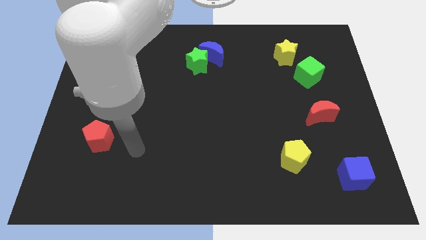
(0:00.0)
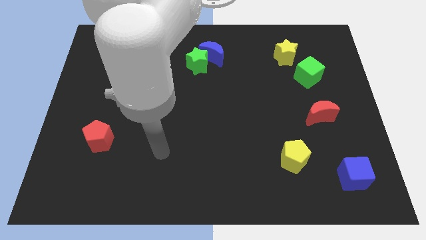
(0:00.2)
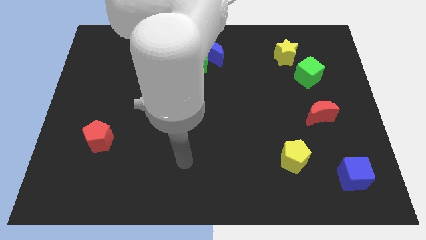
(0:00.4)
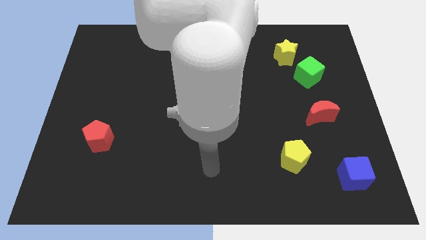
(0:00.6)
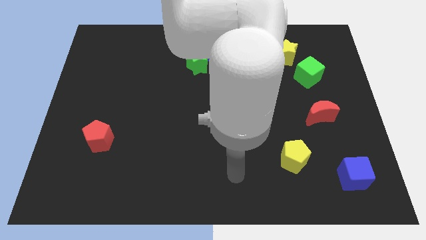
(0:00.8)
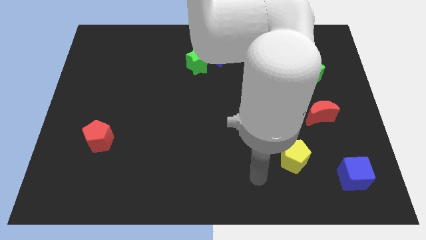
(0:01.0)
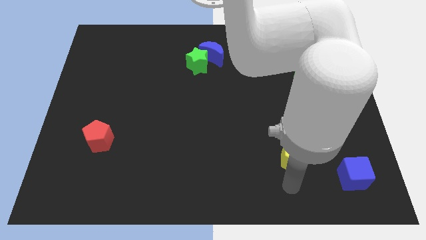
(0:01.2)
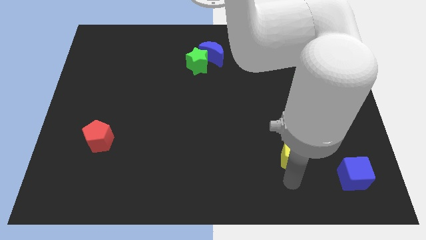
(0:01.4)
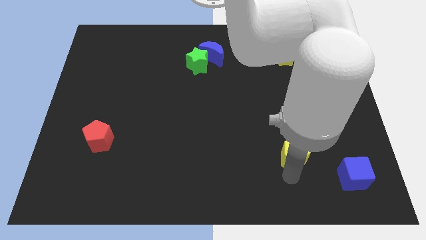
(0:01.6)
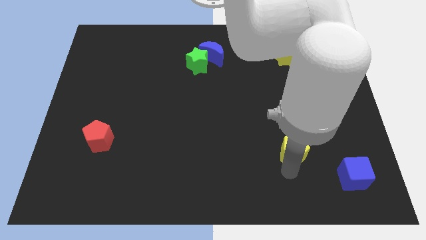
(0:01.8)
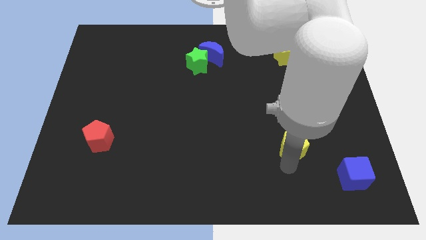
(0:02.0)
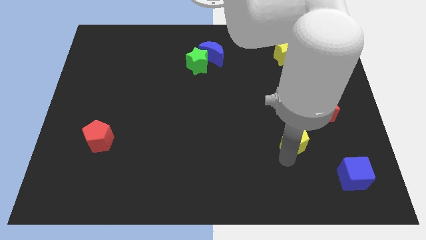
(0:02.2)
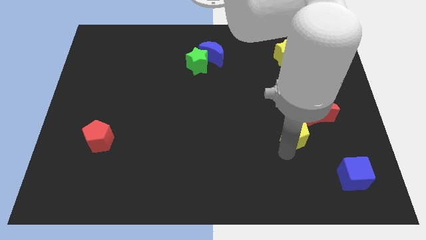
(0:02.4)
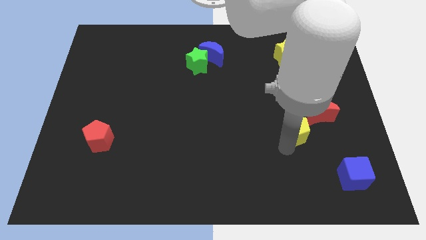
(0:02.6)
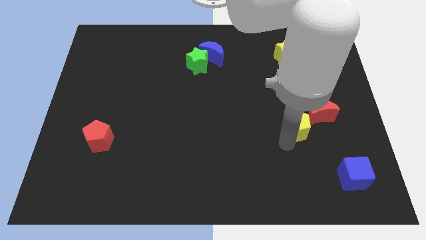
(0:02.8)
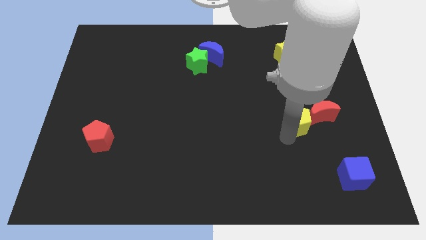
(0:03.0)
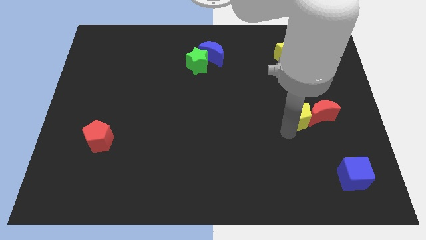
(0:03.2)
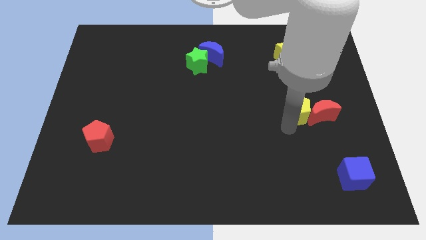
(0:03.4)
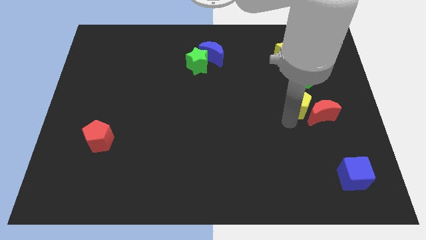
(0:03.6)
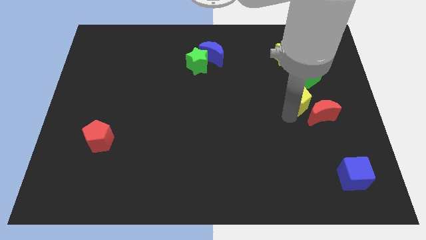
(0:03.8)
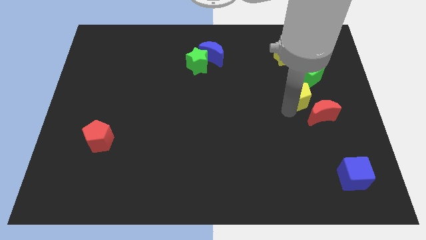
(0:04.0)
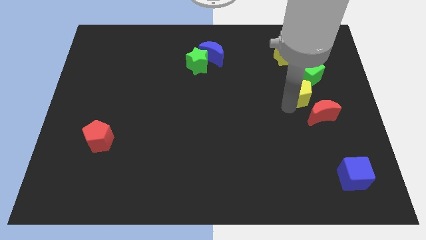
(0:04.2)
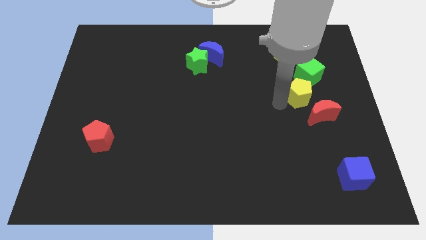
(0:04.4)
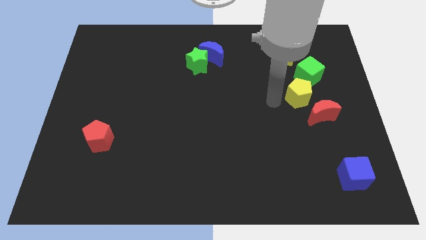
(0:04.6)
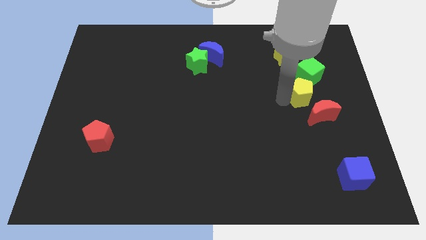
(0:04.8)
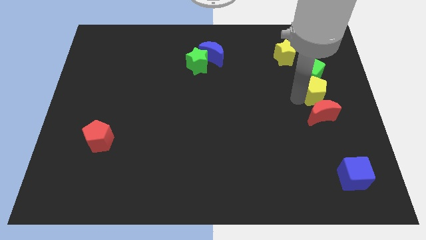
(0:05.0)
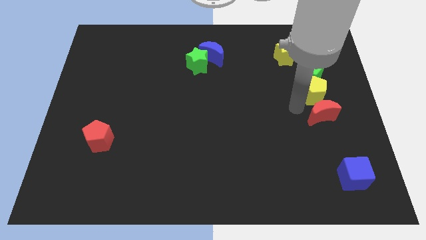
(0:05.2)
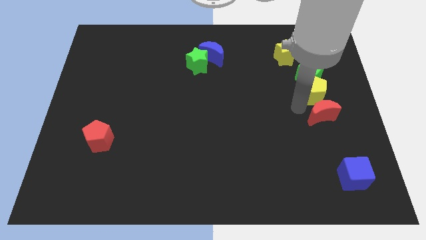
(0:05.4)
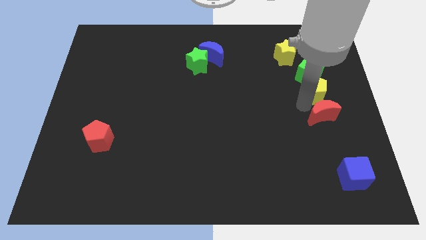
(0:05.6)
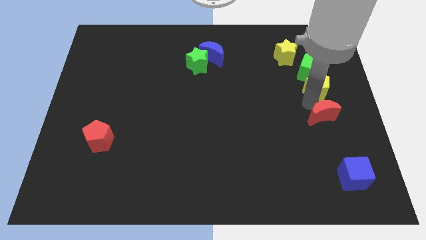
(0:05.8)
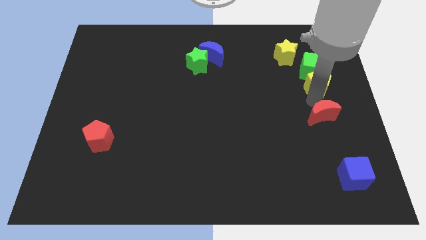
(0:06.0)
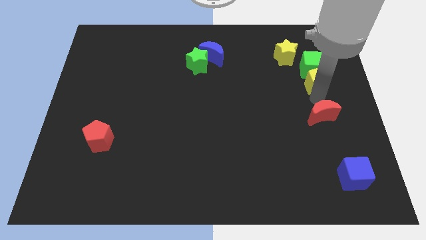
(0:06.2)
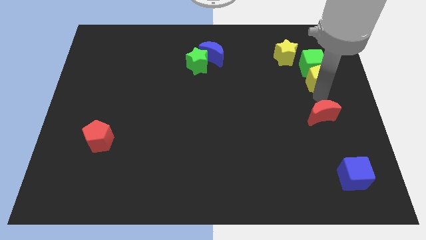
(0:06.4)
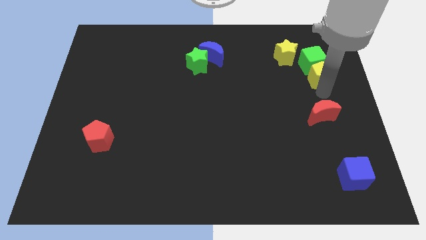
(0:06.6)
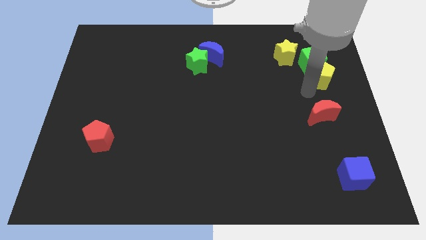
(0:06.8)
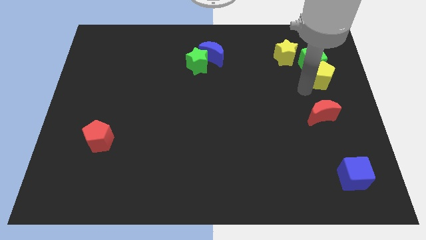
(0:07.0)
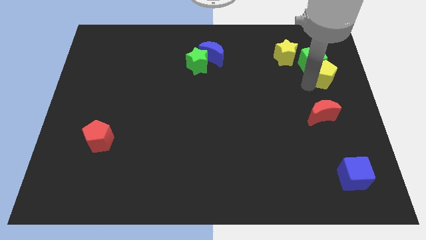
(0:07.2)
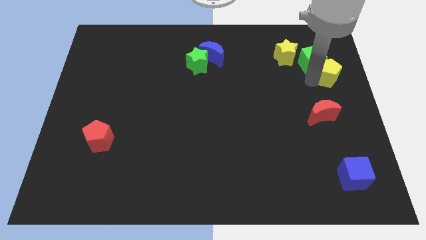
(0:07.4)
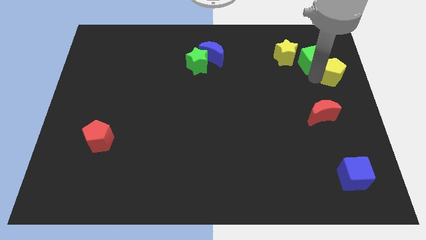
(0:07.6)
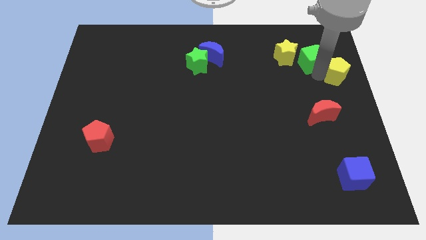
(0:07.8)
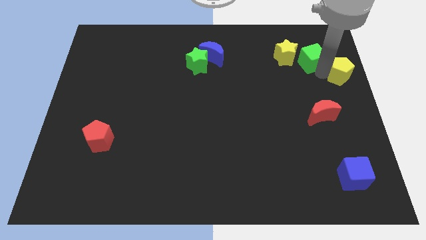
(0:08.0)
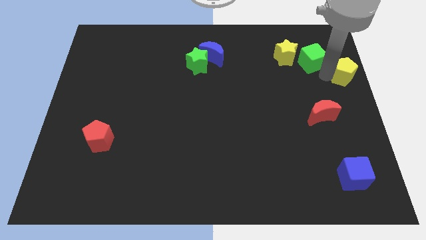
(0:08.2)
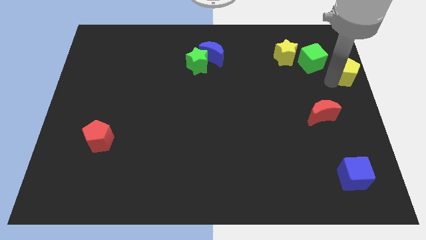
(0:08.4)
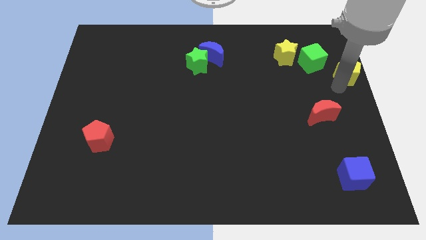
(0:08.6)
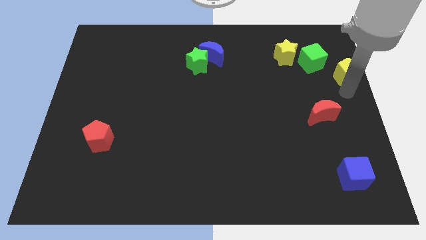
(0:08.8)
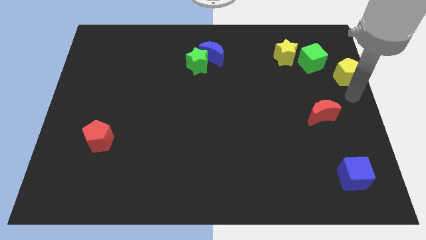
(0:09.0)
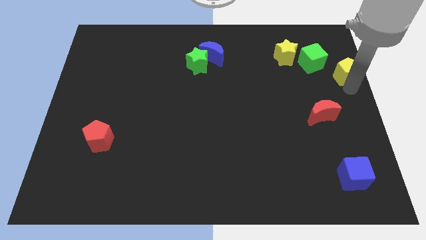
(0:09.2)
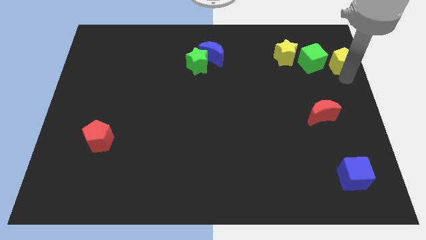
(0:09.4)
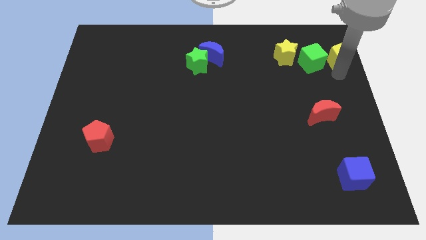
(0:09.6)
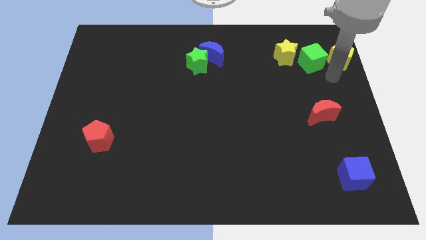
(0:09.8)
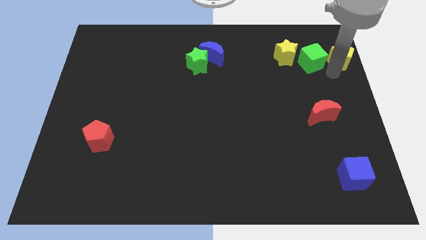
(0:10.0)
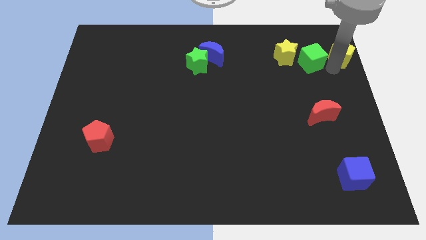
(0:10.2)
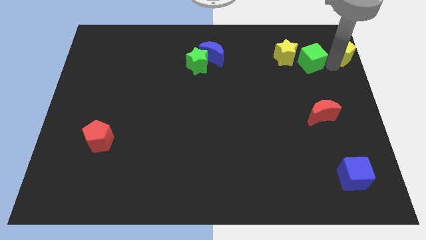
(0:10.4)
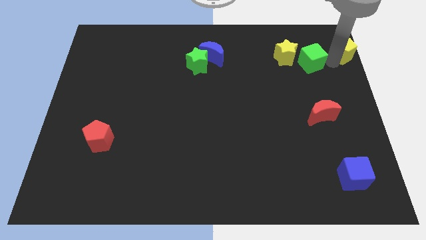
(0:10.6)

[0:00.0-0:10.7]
put the yellow pentagon to the top right corner

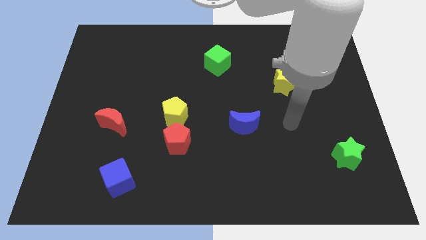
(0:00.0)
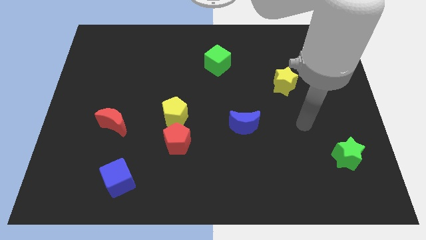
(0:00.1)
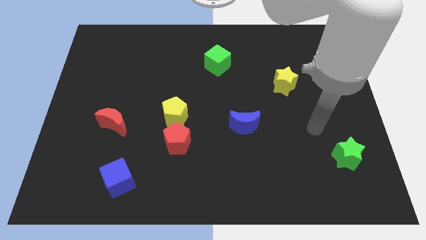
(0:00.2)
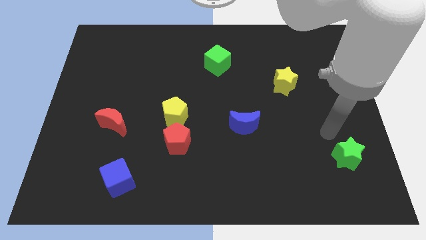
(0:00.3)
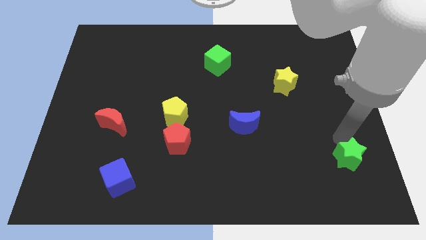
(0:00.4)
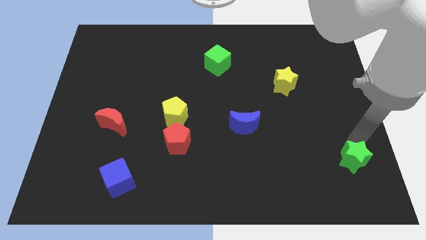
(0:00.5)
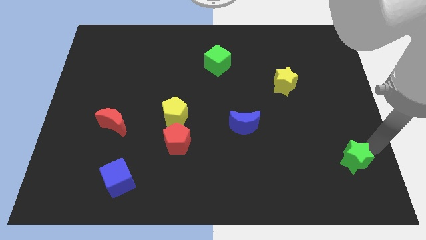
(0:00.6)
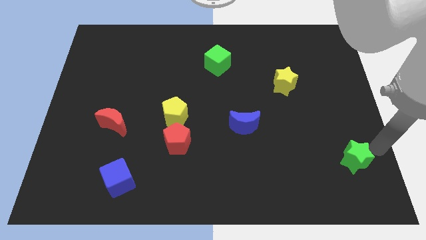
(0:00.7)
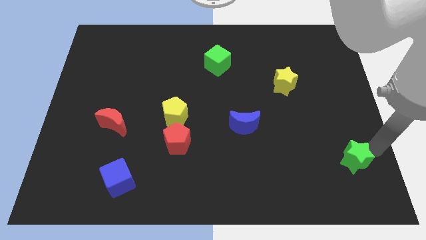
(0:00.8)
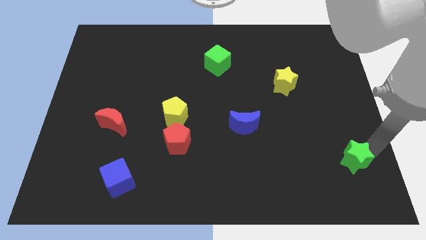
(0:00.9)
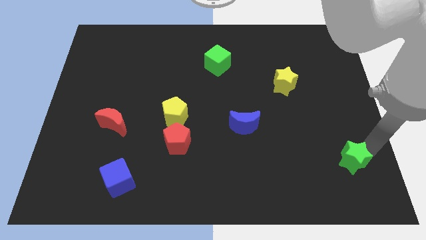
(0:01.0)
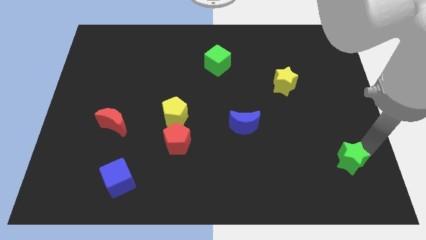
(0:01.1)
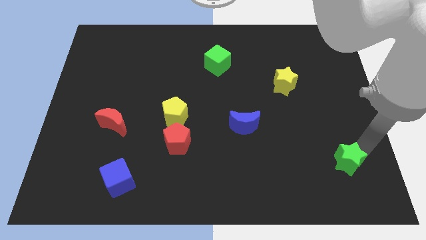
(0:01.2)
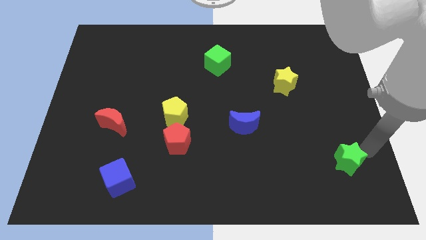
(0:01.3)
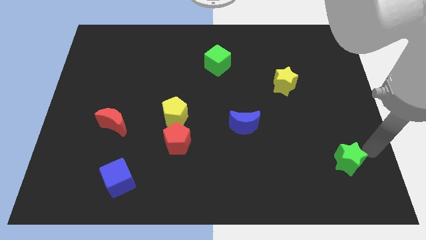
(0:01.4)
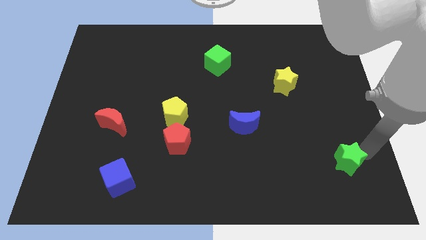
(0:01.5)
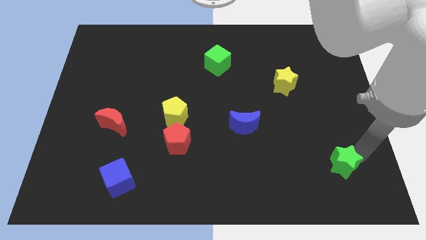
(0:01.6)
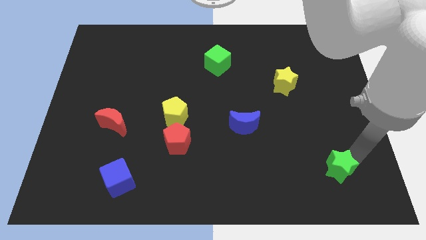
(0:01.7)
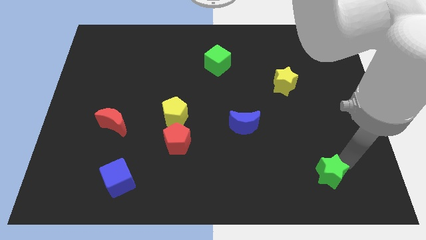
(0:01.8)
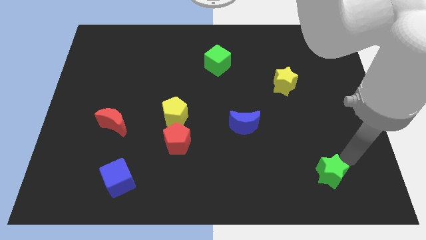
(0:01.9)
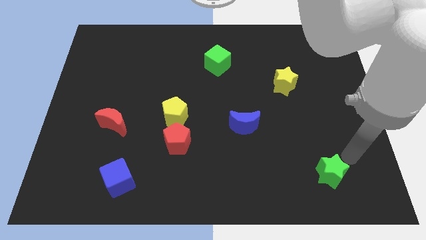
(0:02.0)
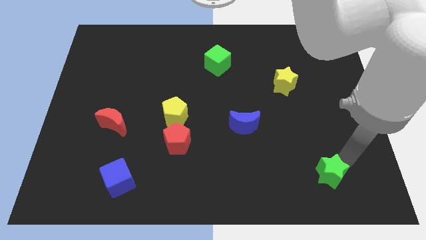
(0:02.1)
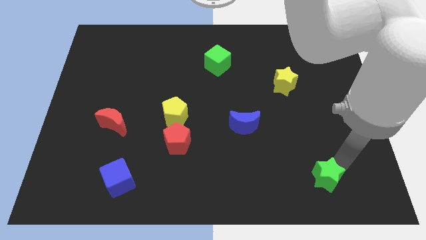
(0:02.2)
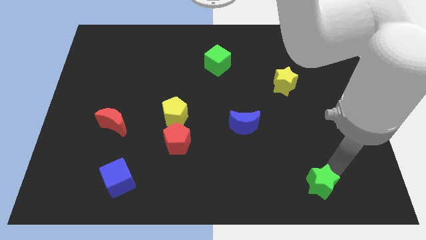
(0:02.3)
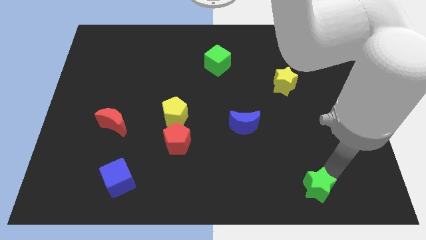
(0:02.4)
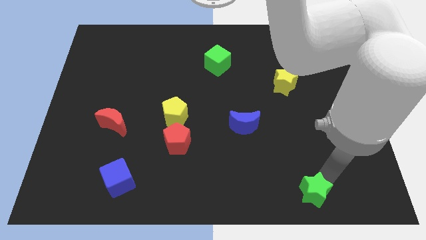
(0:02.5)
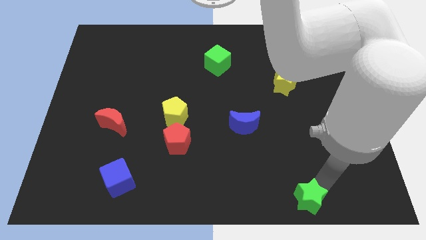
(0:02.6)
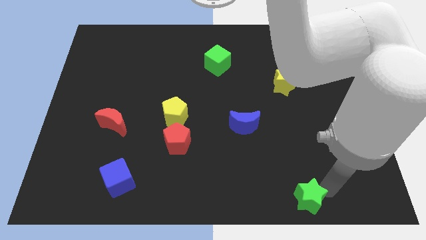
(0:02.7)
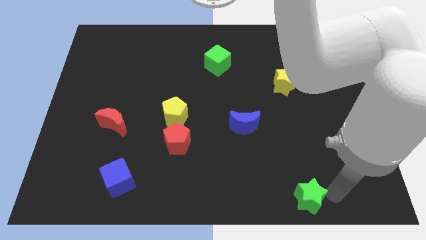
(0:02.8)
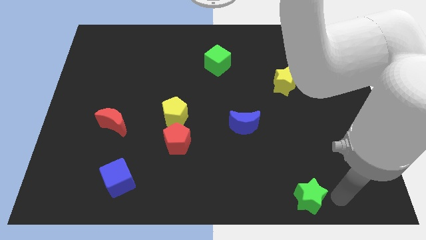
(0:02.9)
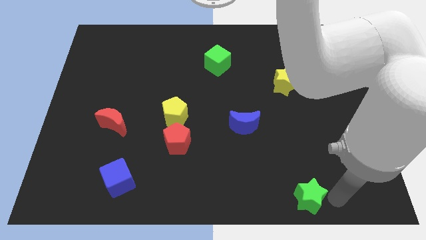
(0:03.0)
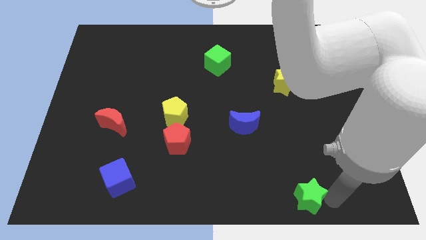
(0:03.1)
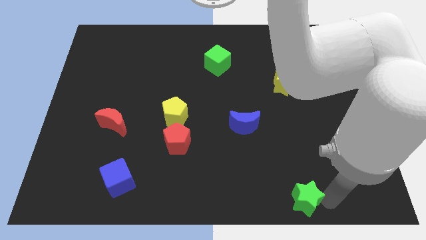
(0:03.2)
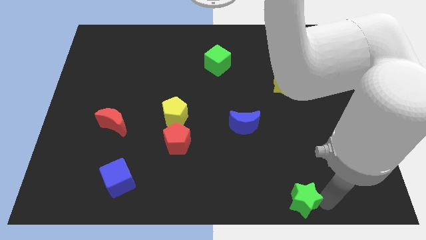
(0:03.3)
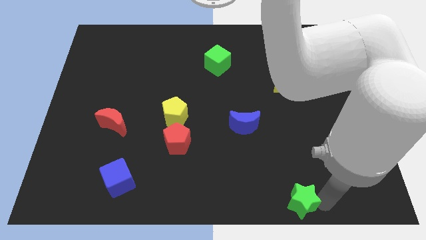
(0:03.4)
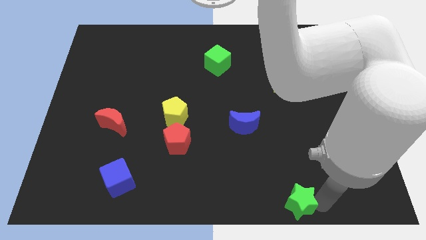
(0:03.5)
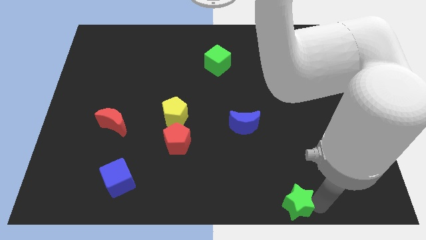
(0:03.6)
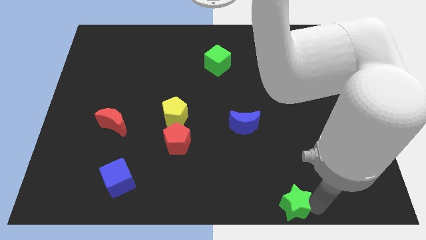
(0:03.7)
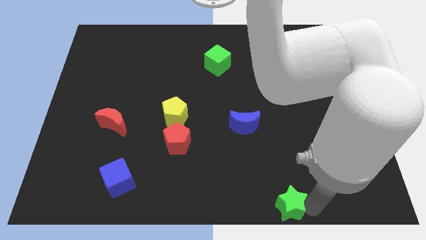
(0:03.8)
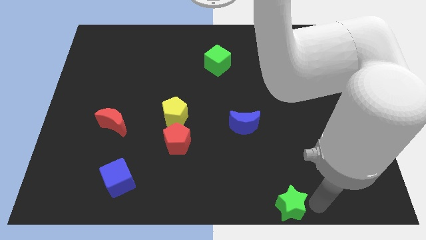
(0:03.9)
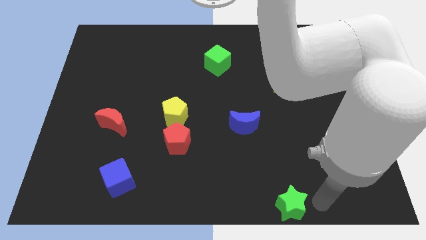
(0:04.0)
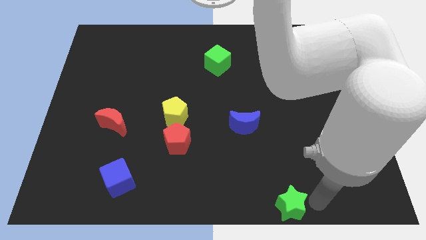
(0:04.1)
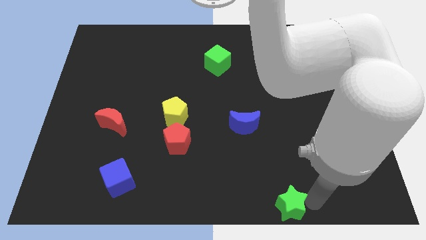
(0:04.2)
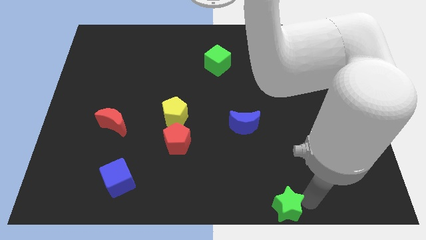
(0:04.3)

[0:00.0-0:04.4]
put the green star to the bottom side
